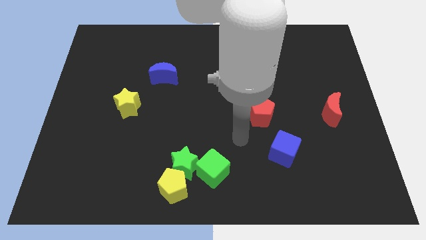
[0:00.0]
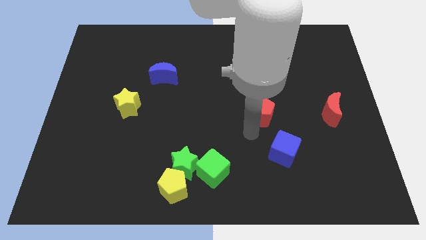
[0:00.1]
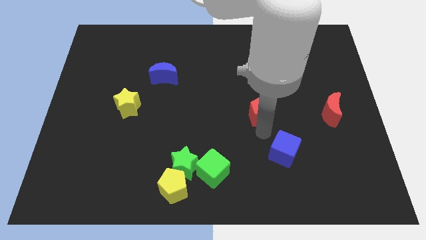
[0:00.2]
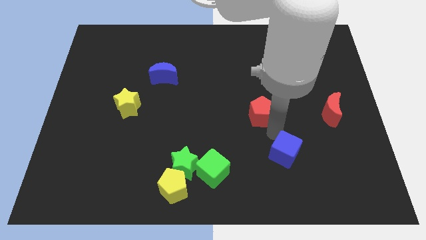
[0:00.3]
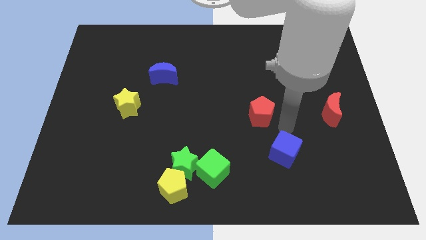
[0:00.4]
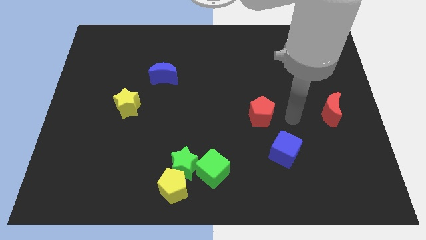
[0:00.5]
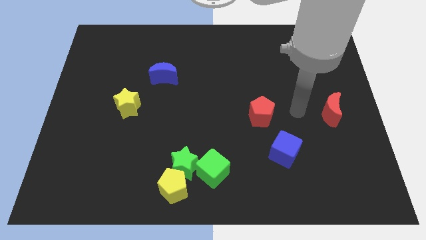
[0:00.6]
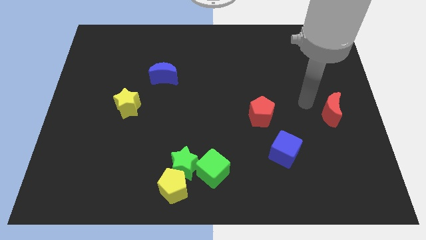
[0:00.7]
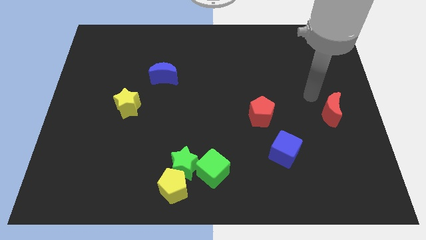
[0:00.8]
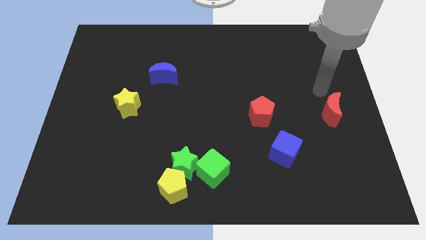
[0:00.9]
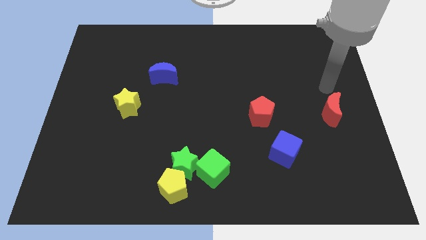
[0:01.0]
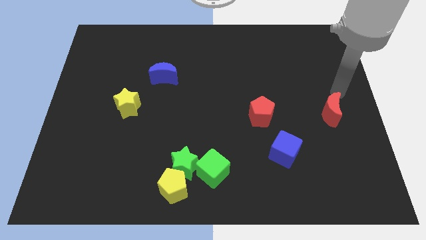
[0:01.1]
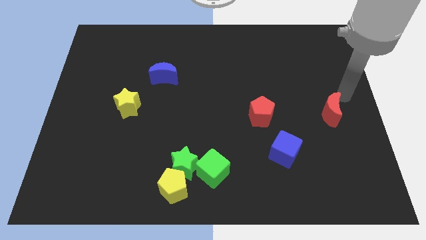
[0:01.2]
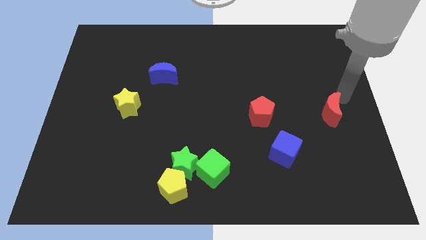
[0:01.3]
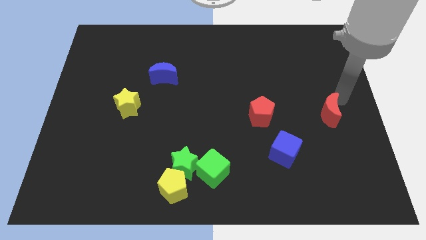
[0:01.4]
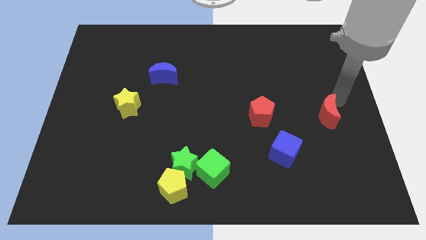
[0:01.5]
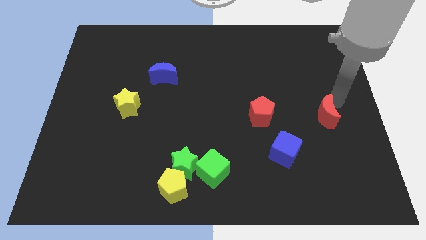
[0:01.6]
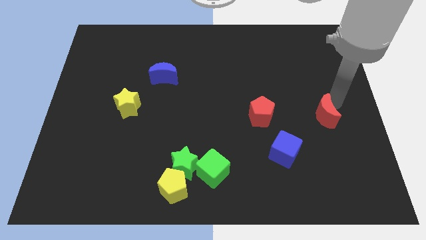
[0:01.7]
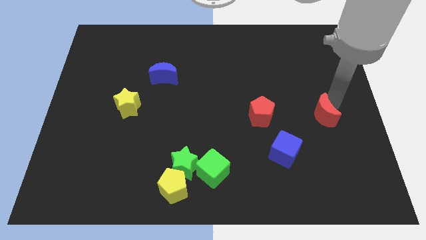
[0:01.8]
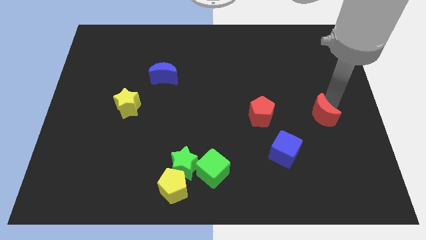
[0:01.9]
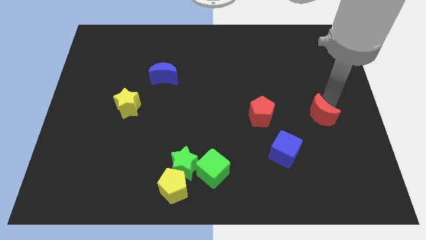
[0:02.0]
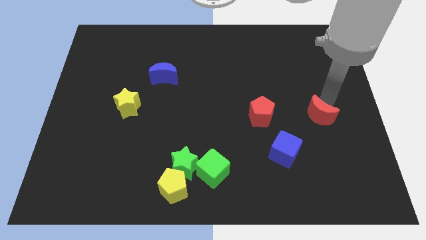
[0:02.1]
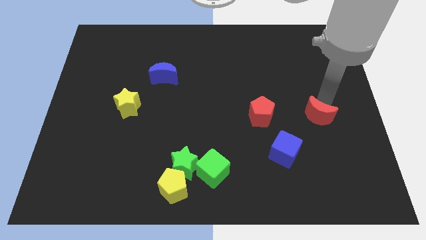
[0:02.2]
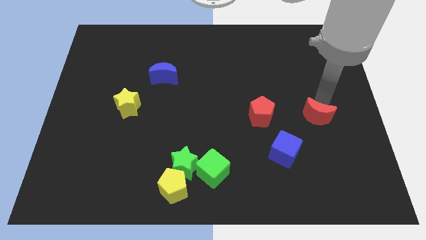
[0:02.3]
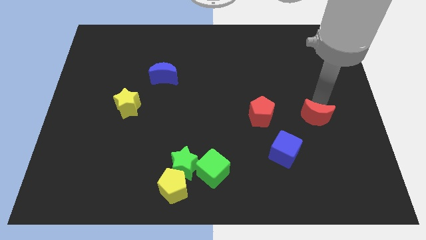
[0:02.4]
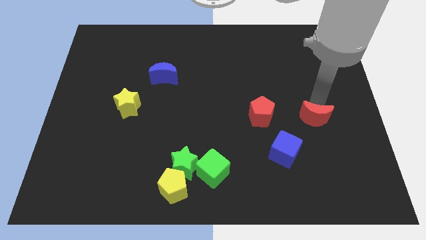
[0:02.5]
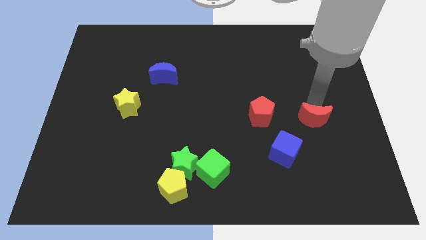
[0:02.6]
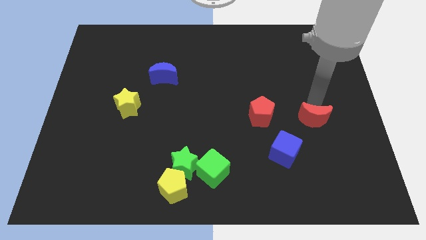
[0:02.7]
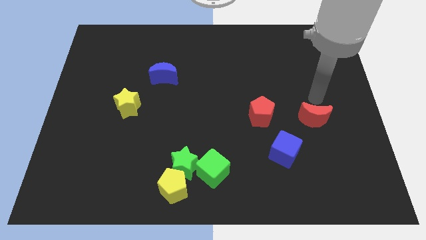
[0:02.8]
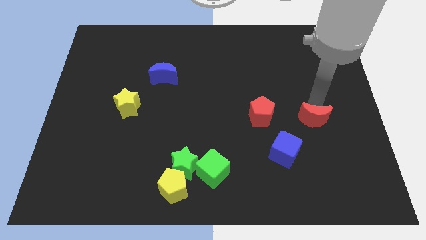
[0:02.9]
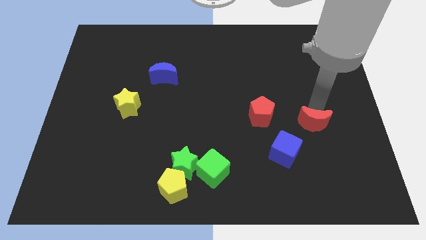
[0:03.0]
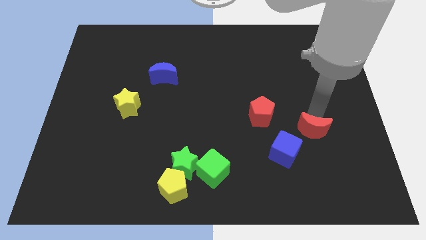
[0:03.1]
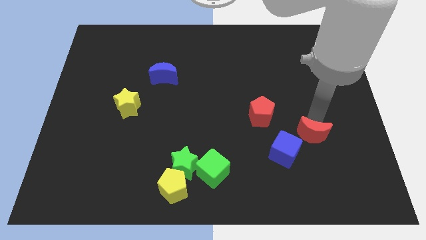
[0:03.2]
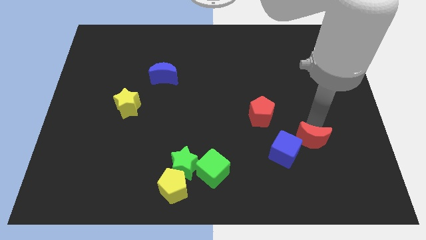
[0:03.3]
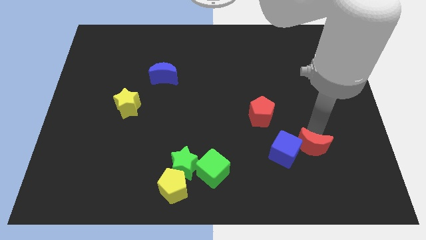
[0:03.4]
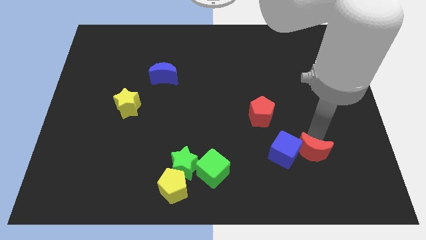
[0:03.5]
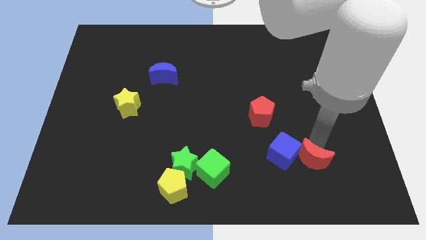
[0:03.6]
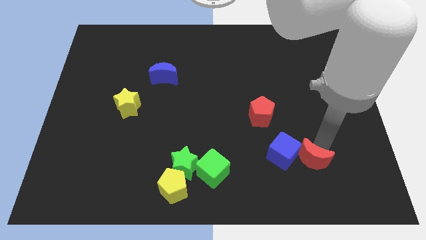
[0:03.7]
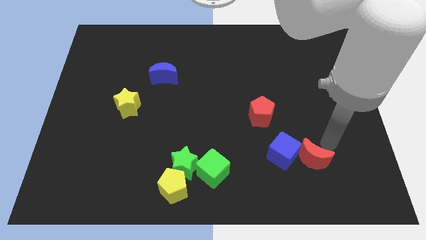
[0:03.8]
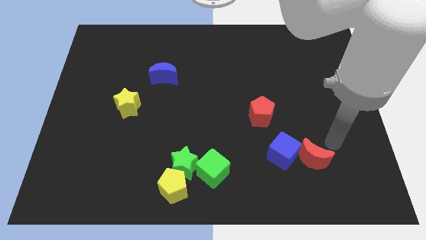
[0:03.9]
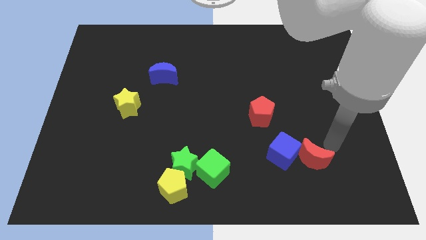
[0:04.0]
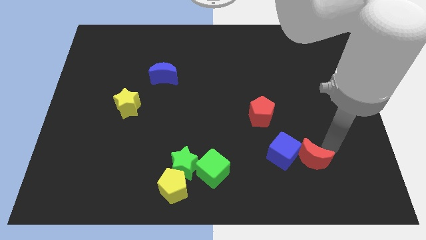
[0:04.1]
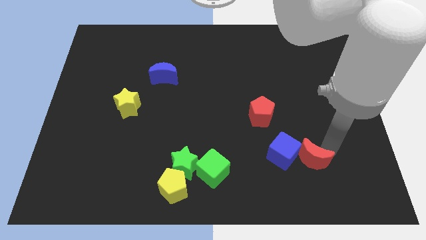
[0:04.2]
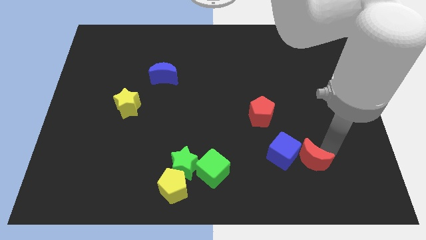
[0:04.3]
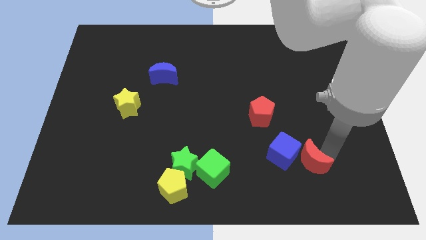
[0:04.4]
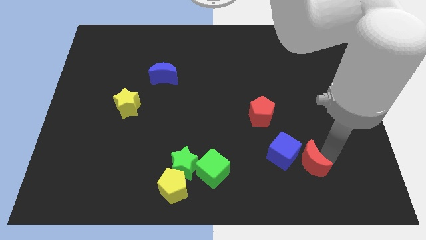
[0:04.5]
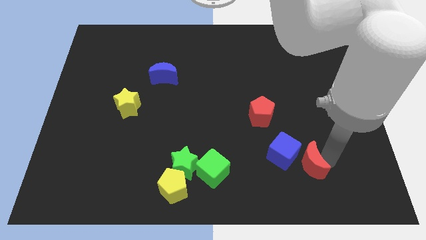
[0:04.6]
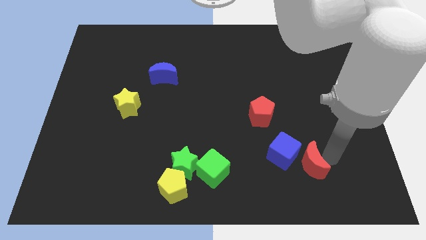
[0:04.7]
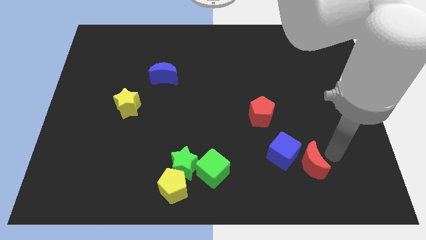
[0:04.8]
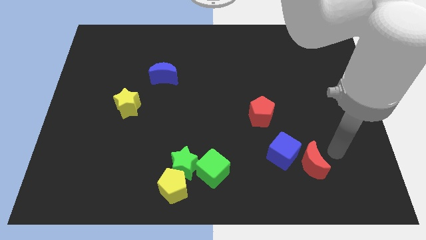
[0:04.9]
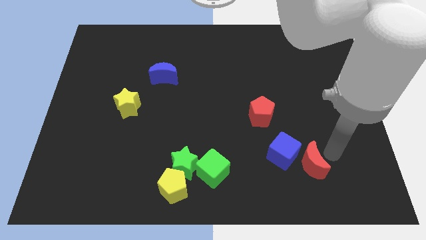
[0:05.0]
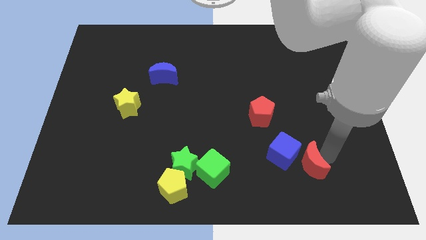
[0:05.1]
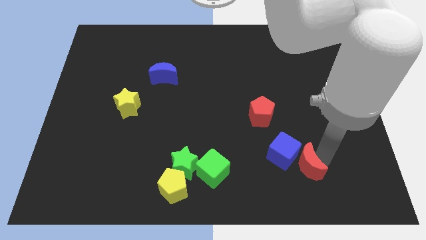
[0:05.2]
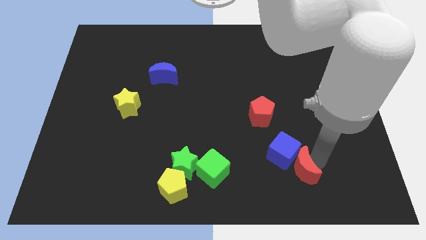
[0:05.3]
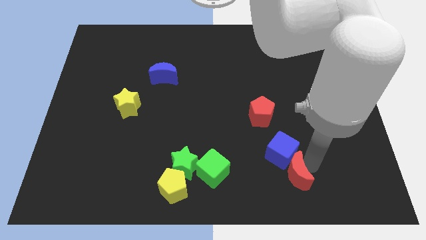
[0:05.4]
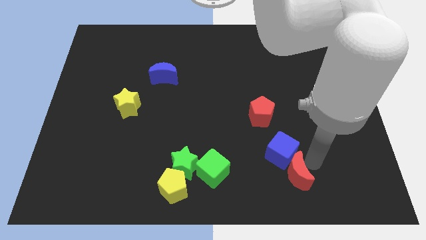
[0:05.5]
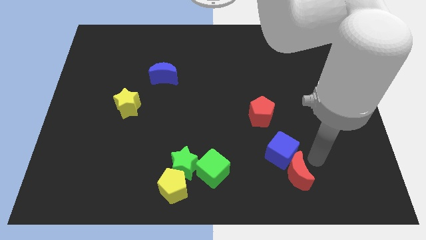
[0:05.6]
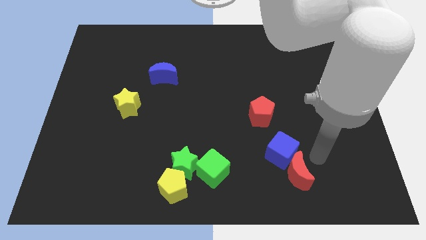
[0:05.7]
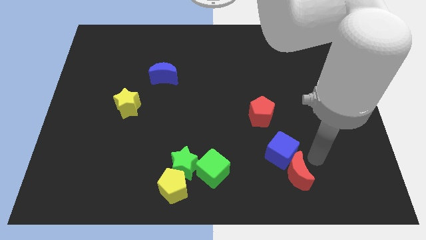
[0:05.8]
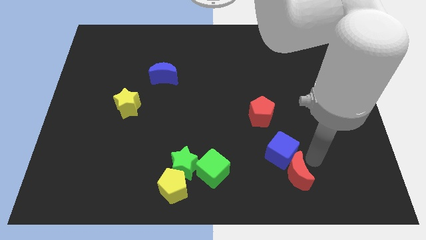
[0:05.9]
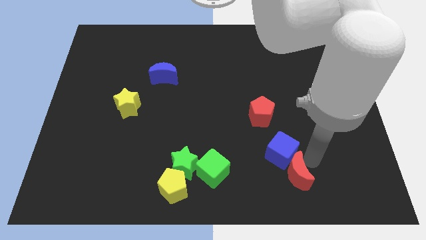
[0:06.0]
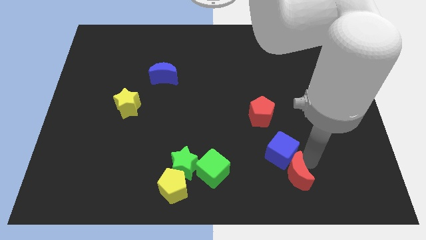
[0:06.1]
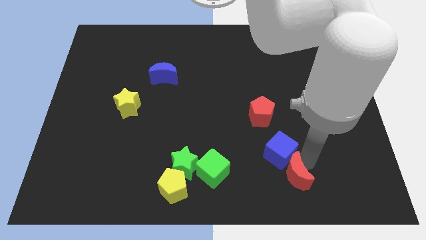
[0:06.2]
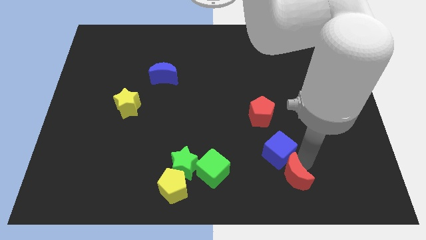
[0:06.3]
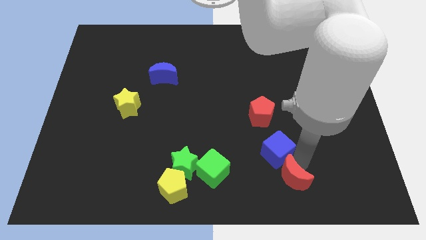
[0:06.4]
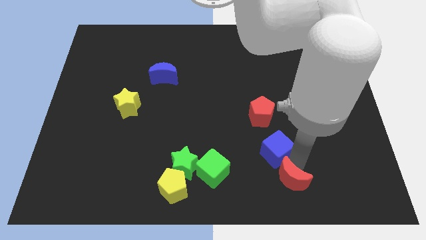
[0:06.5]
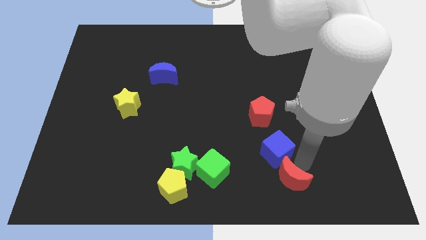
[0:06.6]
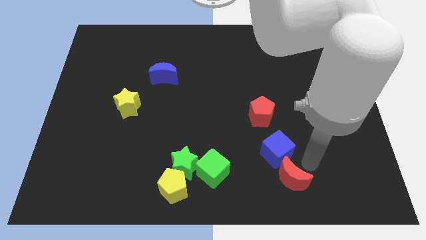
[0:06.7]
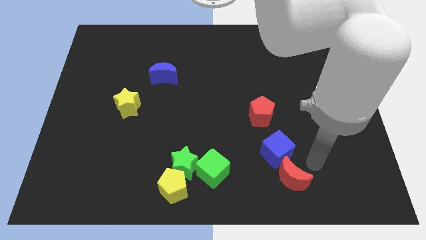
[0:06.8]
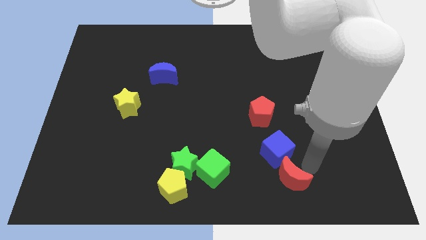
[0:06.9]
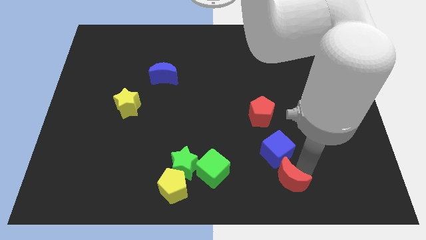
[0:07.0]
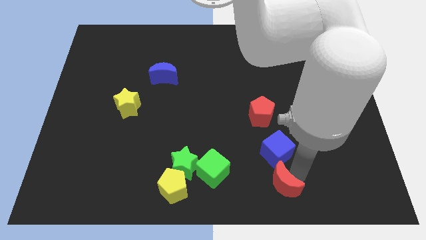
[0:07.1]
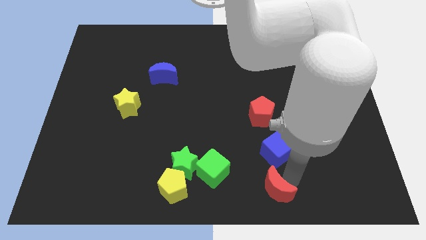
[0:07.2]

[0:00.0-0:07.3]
put the red moon to the bottom

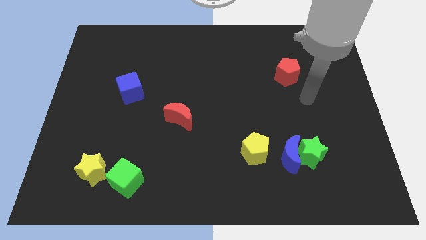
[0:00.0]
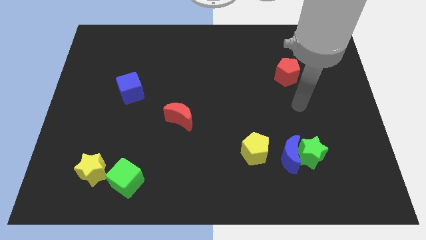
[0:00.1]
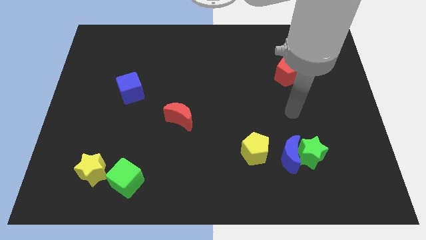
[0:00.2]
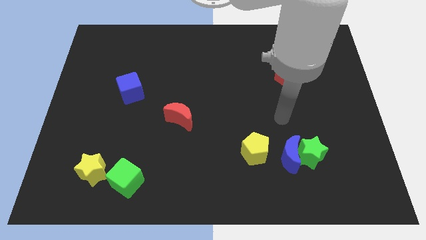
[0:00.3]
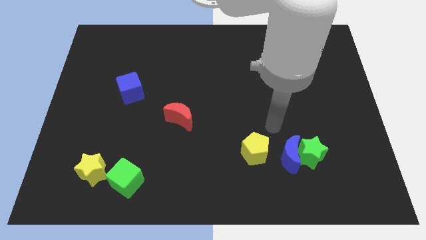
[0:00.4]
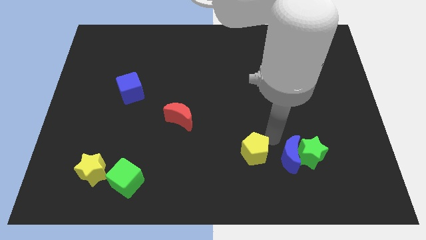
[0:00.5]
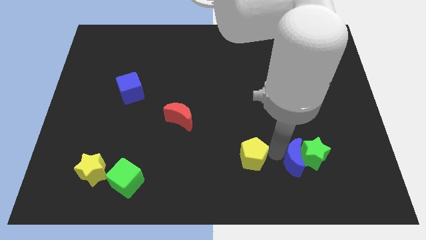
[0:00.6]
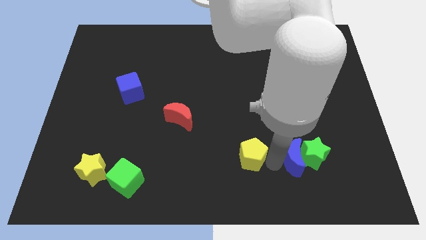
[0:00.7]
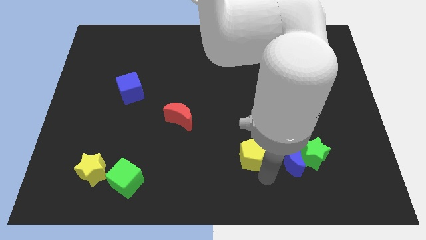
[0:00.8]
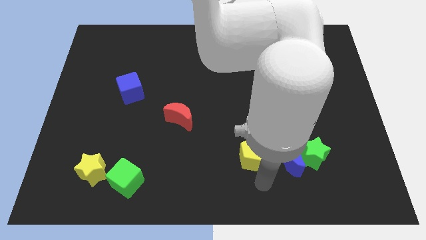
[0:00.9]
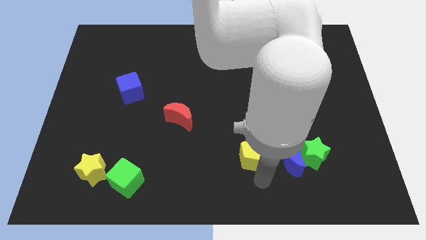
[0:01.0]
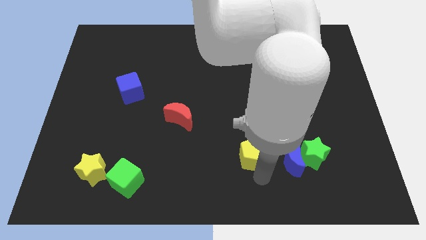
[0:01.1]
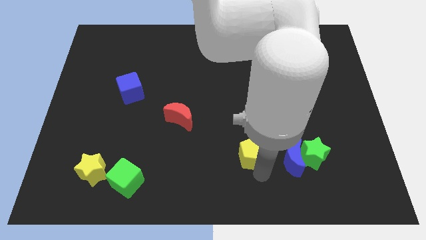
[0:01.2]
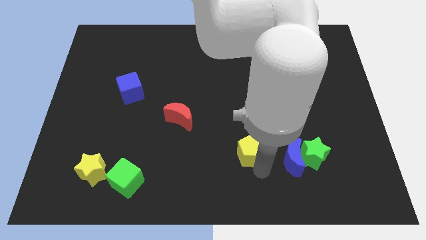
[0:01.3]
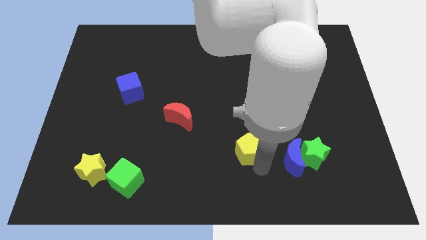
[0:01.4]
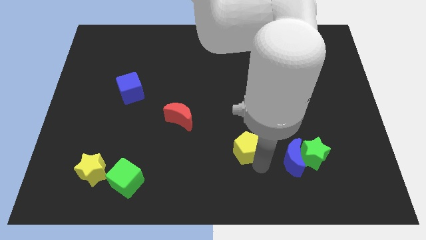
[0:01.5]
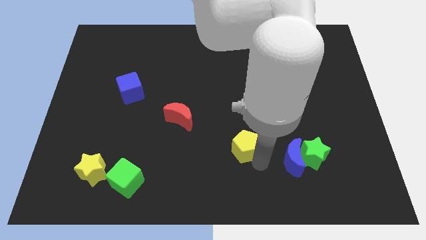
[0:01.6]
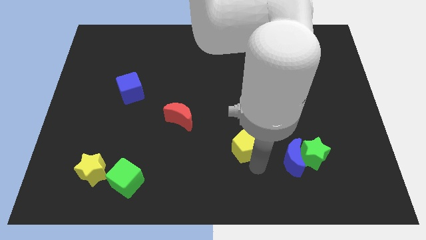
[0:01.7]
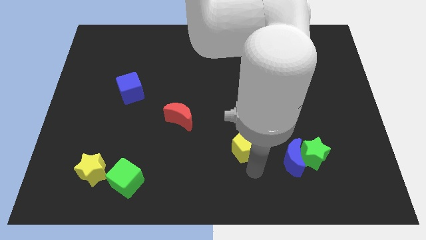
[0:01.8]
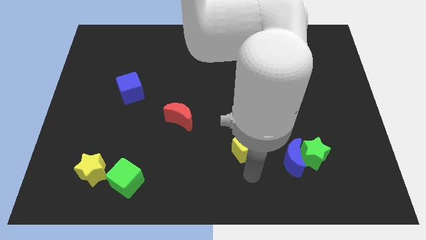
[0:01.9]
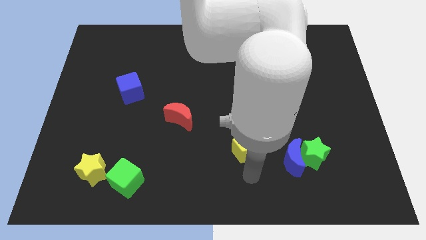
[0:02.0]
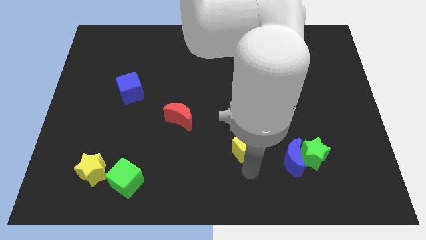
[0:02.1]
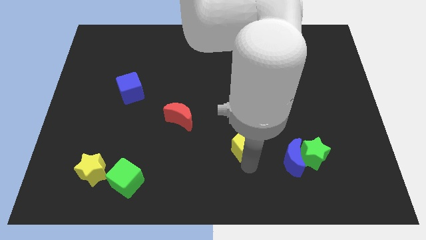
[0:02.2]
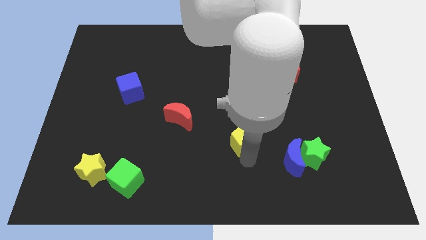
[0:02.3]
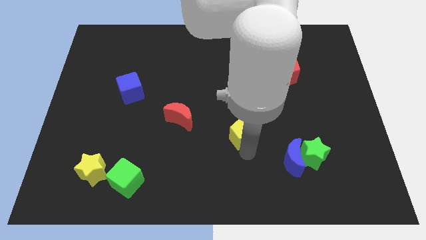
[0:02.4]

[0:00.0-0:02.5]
put the yellow pentagon to the center
